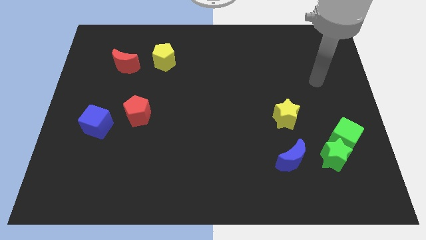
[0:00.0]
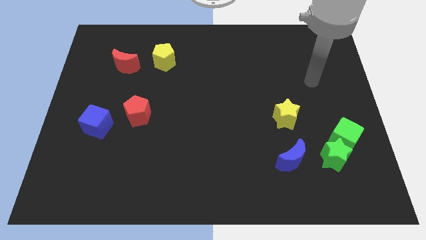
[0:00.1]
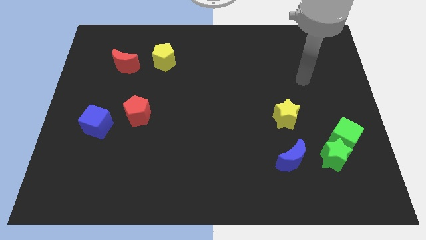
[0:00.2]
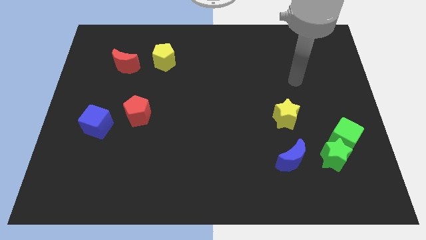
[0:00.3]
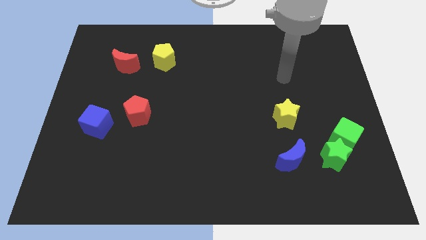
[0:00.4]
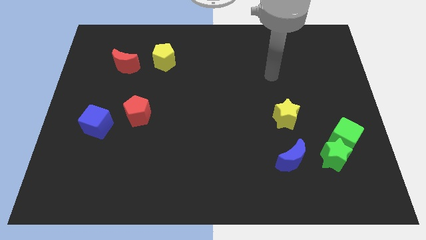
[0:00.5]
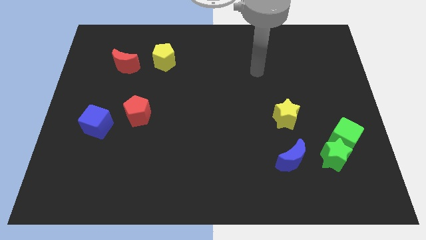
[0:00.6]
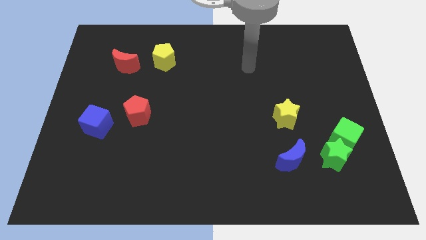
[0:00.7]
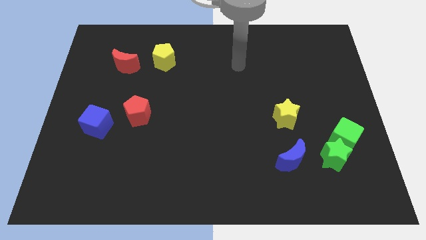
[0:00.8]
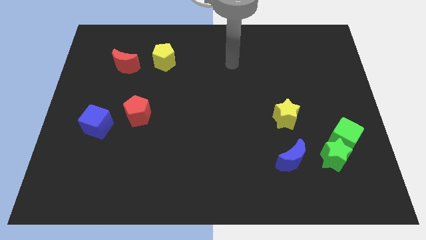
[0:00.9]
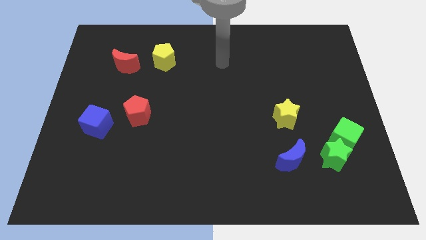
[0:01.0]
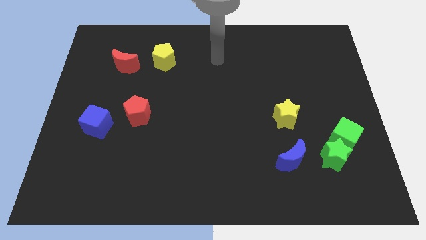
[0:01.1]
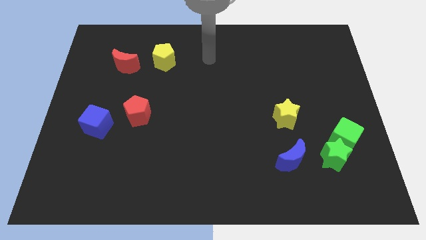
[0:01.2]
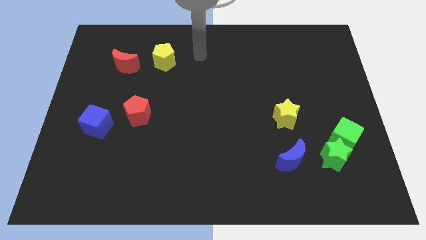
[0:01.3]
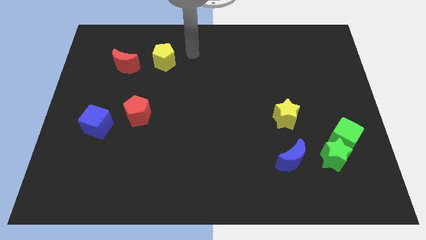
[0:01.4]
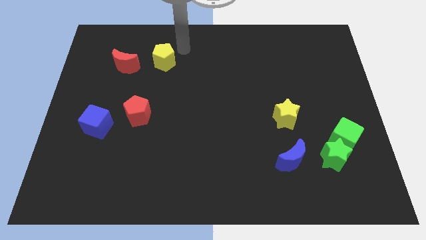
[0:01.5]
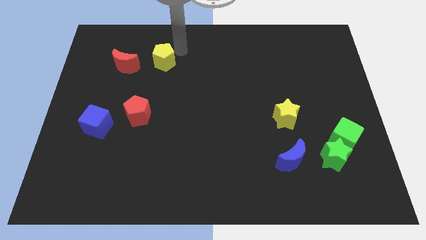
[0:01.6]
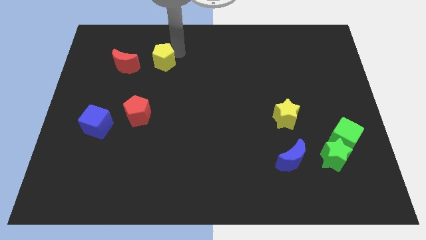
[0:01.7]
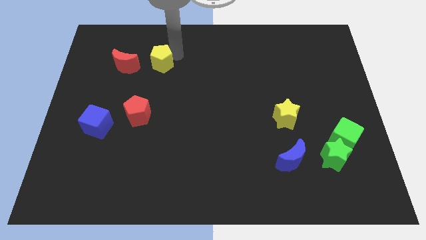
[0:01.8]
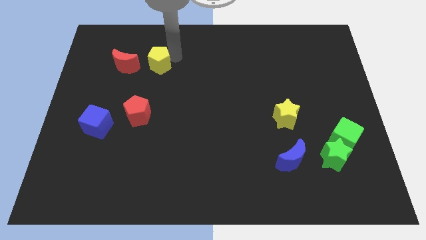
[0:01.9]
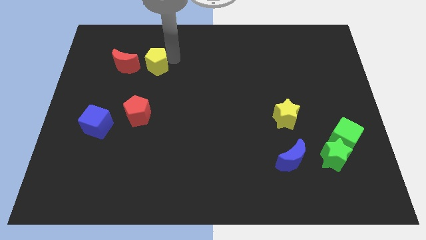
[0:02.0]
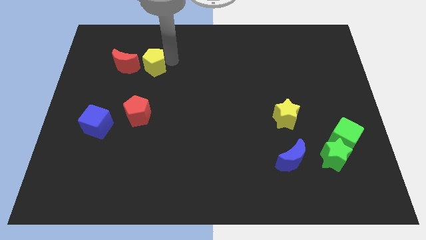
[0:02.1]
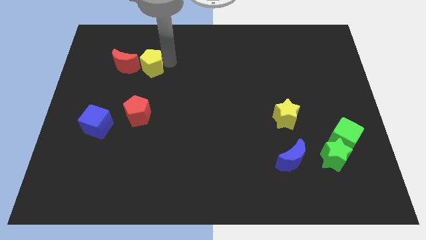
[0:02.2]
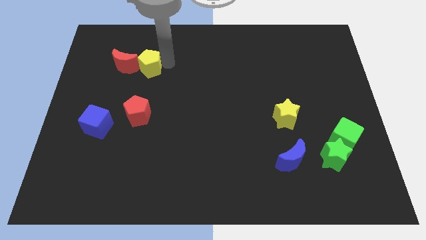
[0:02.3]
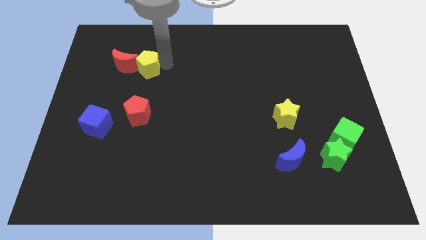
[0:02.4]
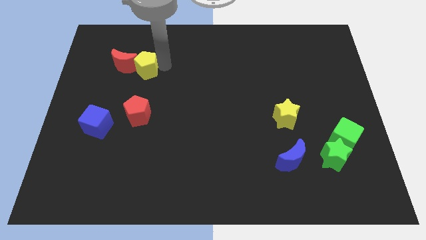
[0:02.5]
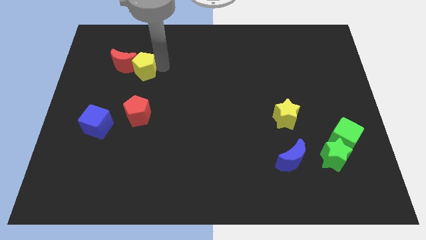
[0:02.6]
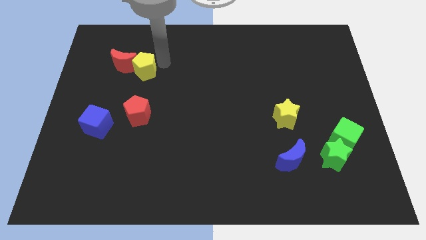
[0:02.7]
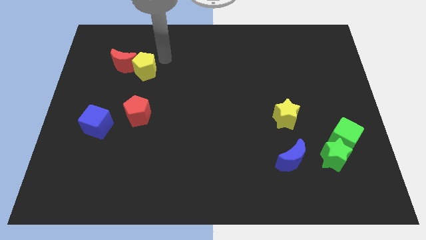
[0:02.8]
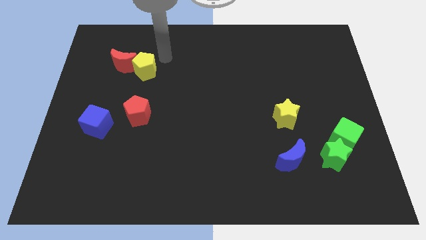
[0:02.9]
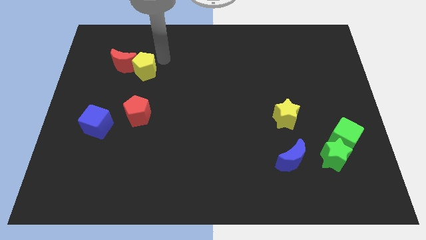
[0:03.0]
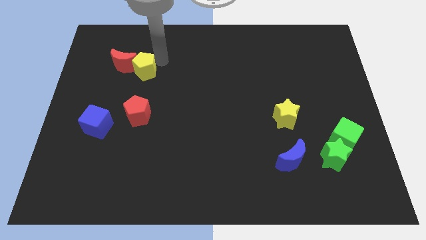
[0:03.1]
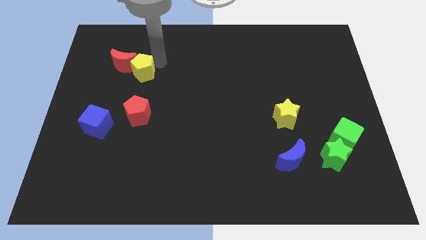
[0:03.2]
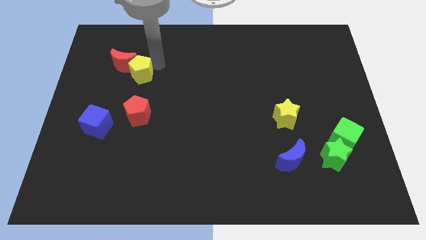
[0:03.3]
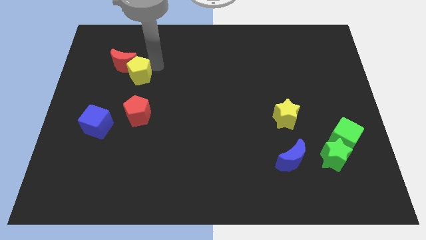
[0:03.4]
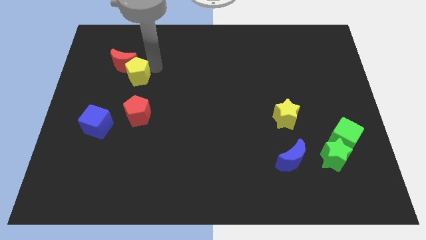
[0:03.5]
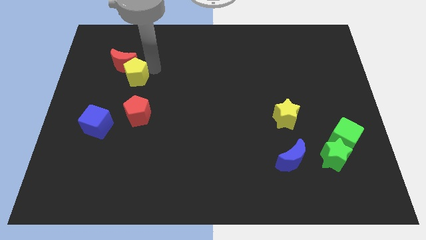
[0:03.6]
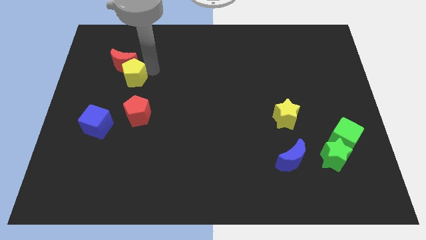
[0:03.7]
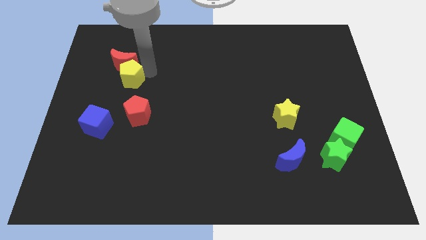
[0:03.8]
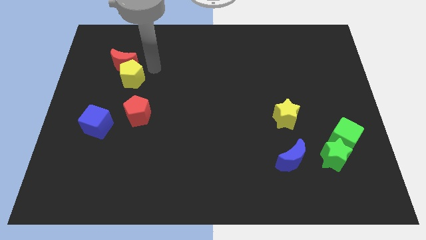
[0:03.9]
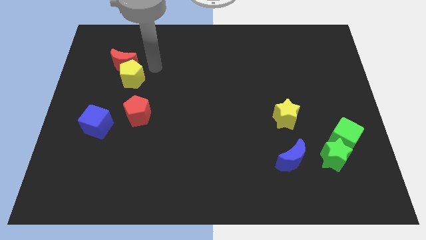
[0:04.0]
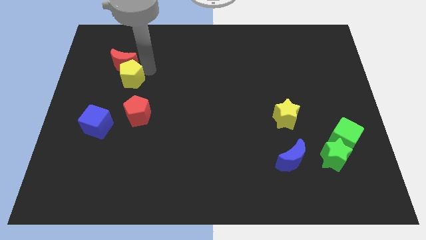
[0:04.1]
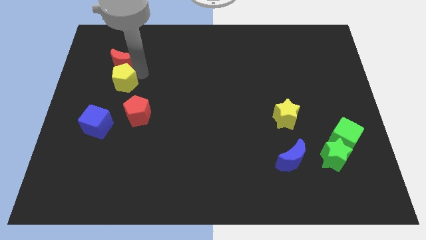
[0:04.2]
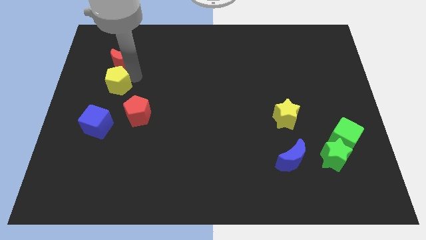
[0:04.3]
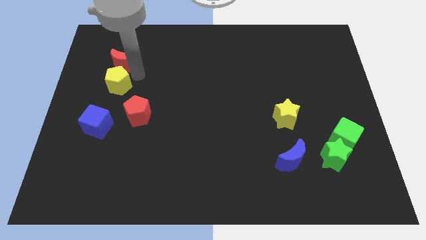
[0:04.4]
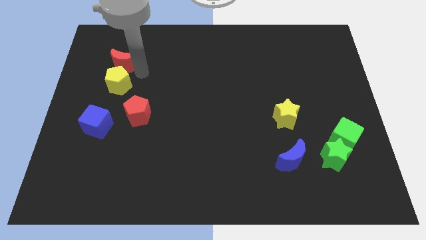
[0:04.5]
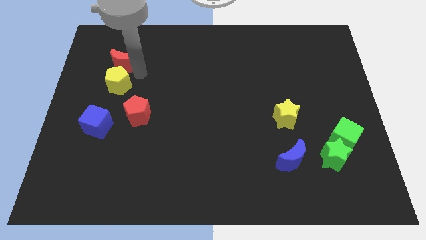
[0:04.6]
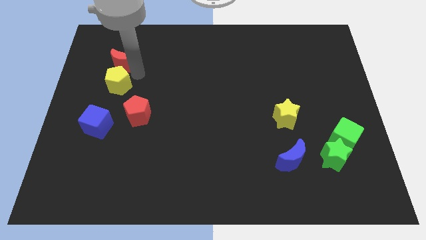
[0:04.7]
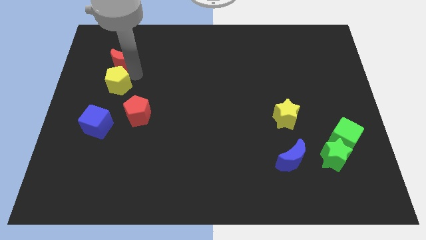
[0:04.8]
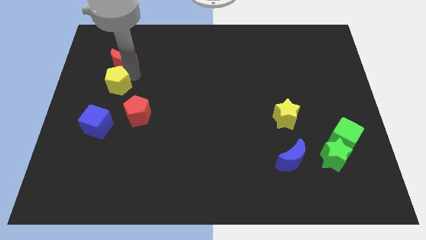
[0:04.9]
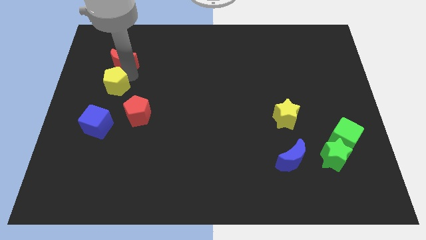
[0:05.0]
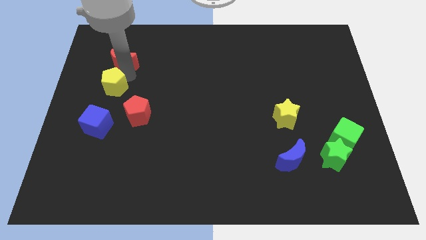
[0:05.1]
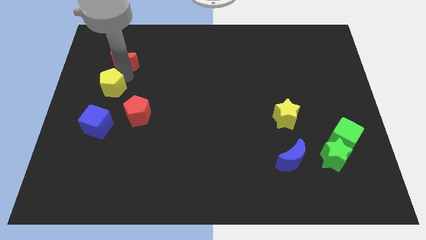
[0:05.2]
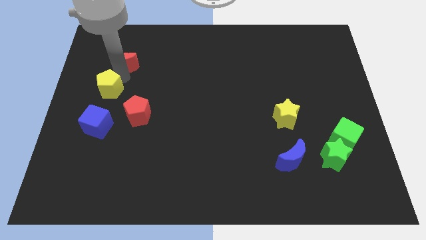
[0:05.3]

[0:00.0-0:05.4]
slide the yellow pentagon to the left side
